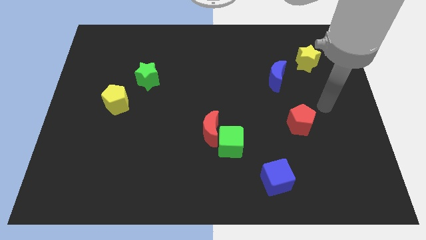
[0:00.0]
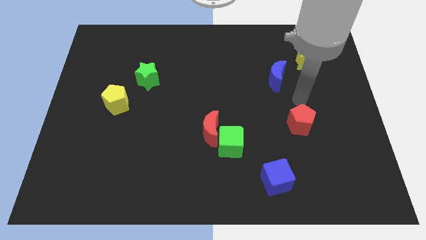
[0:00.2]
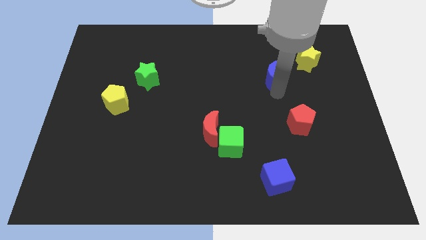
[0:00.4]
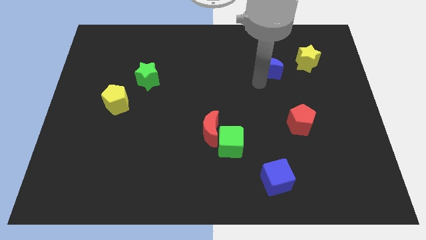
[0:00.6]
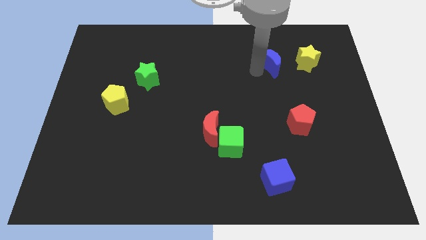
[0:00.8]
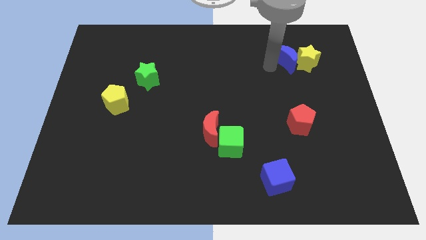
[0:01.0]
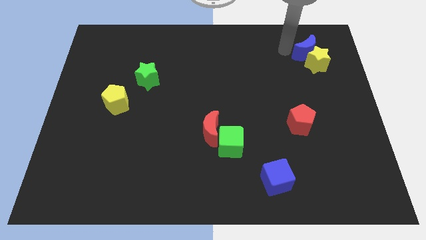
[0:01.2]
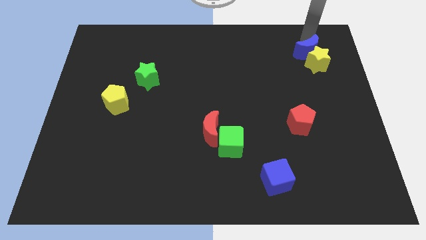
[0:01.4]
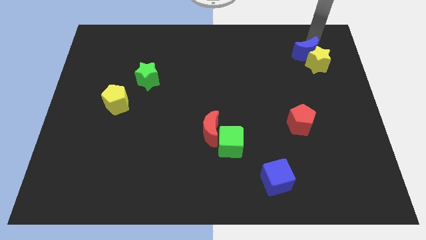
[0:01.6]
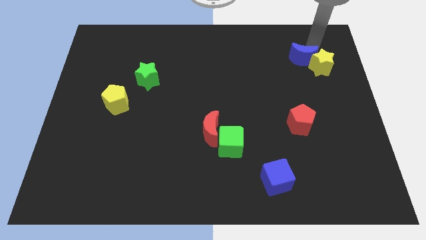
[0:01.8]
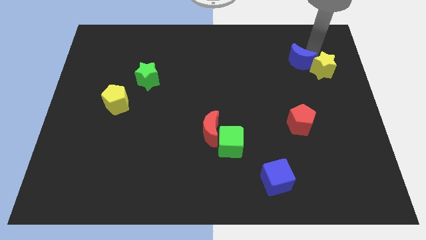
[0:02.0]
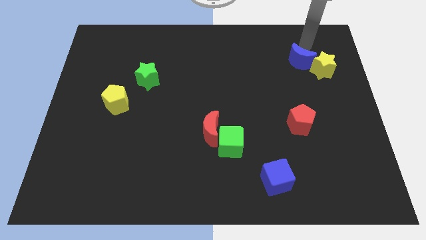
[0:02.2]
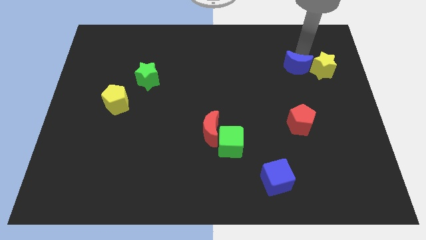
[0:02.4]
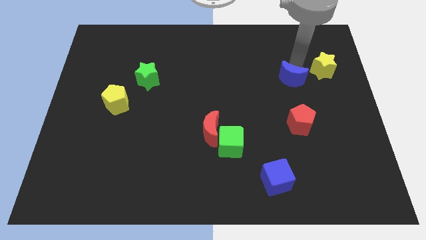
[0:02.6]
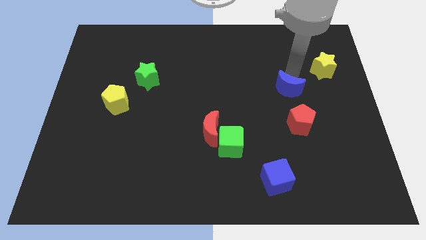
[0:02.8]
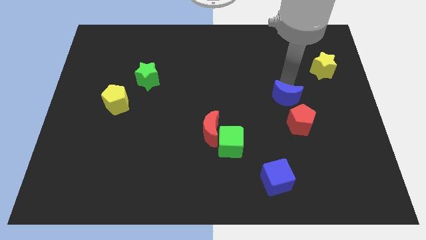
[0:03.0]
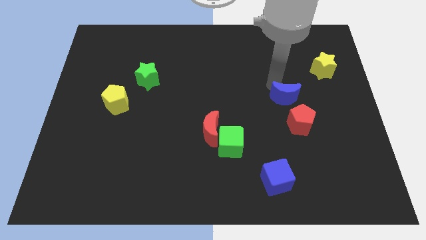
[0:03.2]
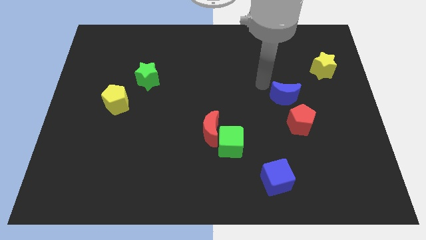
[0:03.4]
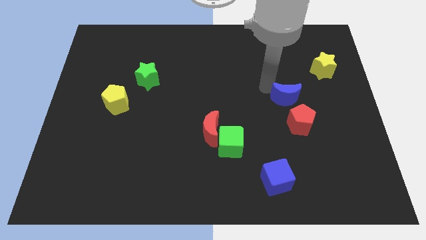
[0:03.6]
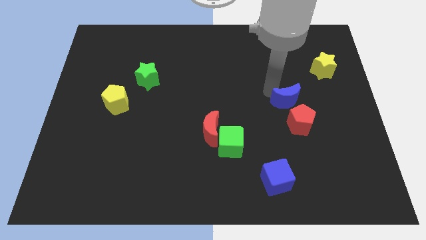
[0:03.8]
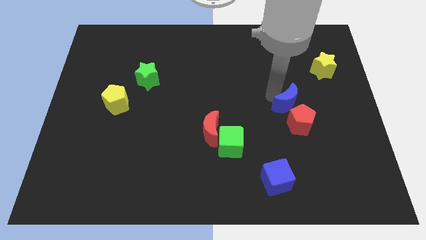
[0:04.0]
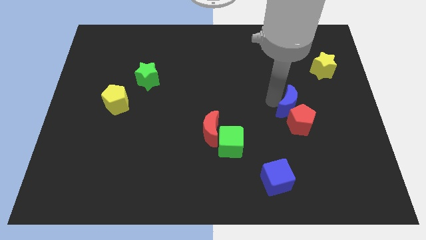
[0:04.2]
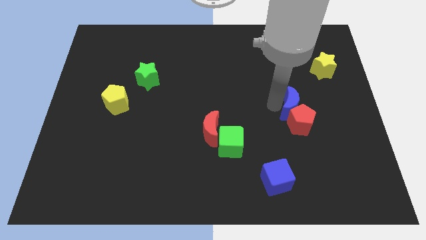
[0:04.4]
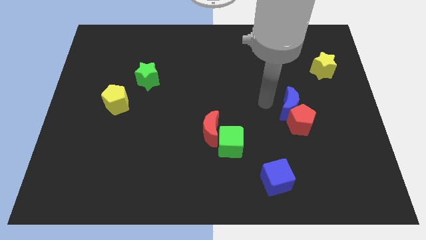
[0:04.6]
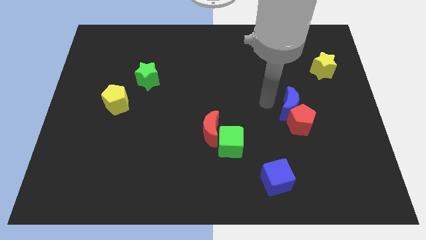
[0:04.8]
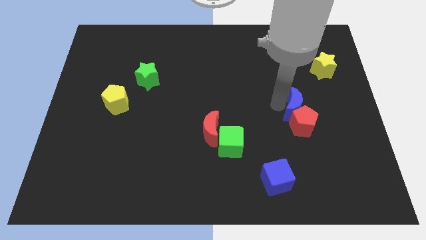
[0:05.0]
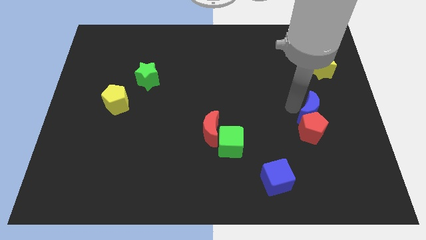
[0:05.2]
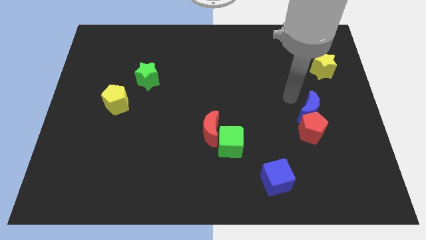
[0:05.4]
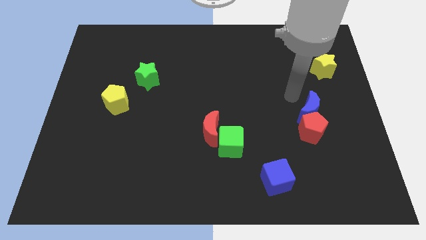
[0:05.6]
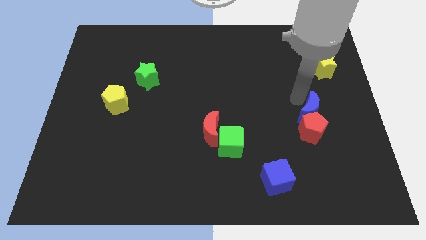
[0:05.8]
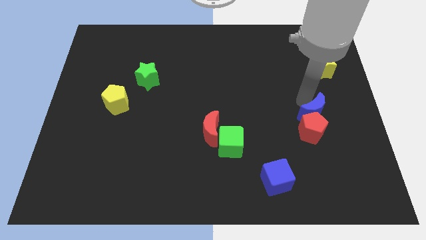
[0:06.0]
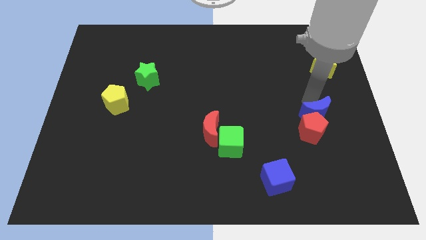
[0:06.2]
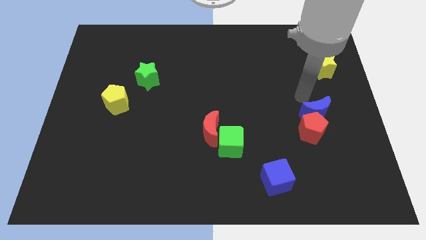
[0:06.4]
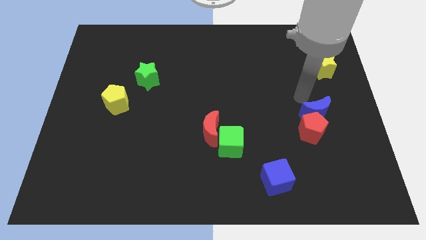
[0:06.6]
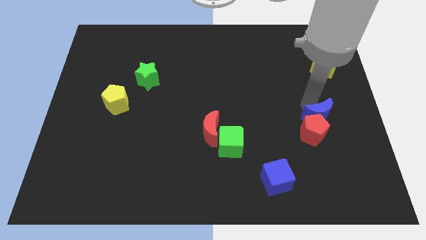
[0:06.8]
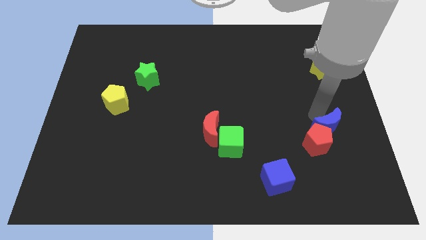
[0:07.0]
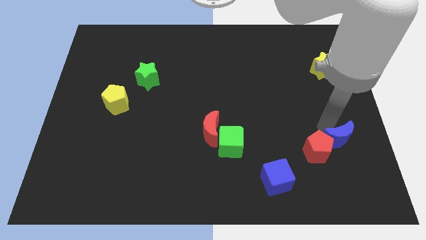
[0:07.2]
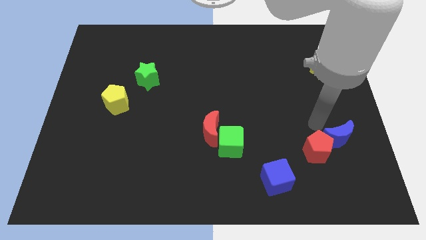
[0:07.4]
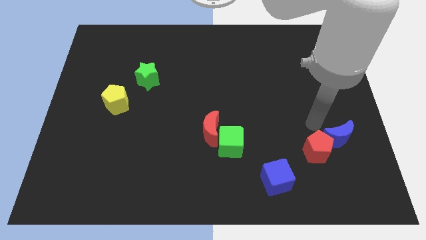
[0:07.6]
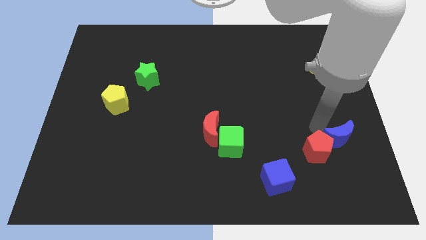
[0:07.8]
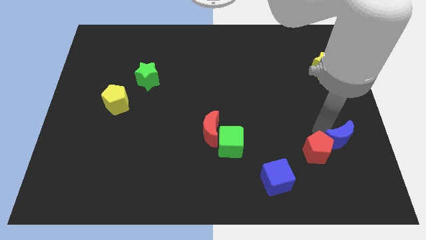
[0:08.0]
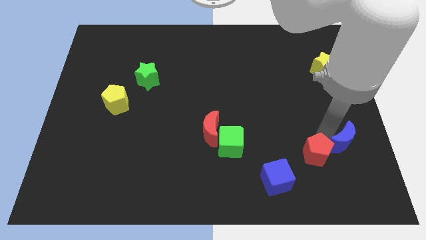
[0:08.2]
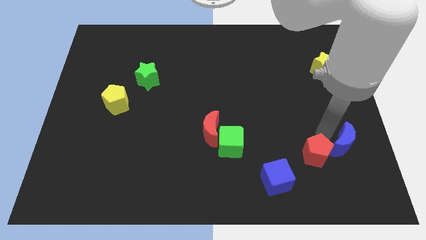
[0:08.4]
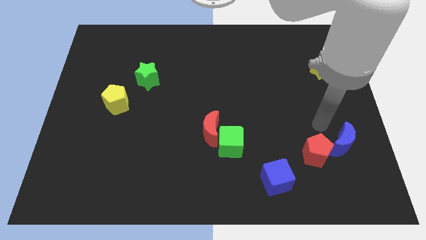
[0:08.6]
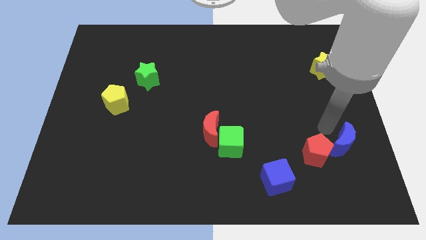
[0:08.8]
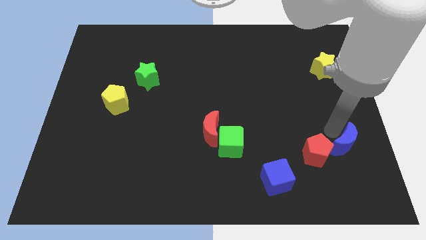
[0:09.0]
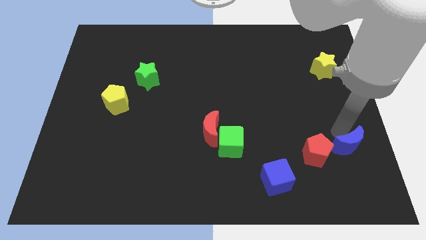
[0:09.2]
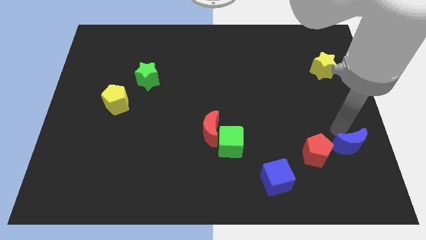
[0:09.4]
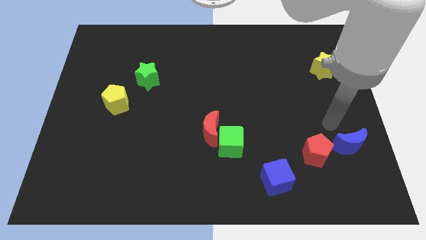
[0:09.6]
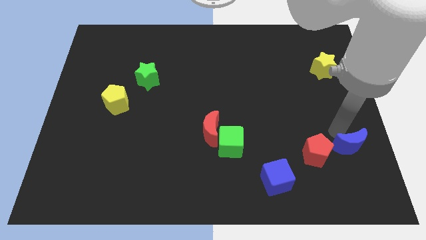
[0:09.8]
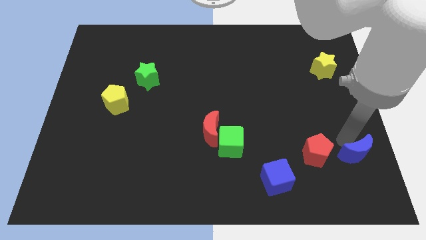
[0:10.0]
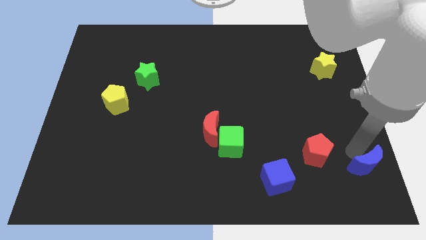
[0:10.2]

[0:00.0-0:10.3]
put the blue moon to the lower right corner

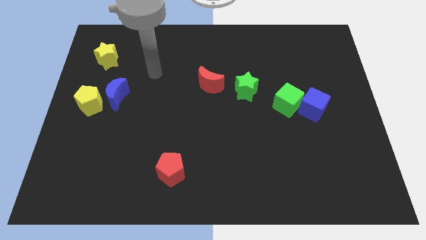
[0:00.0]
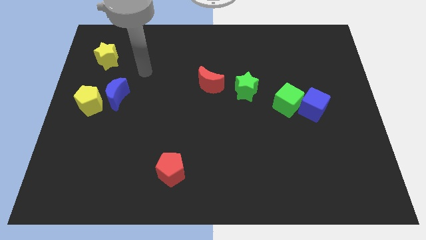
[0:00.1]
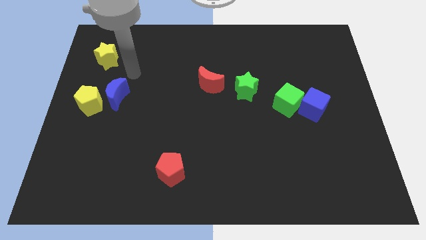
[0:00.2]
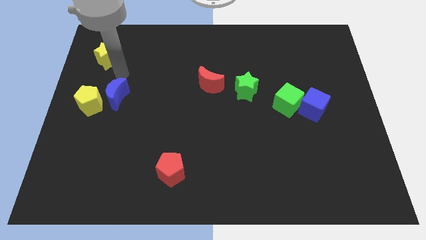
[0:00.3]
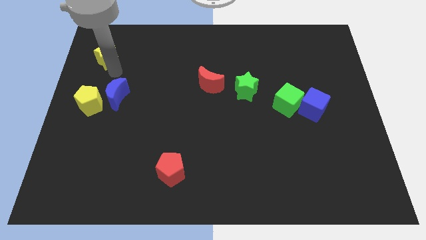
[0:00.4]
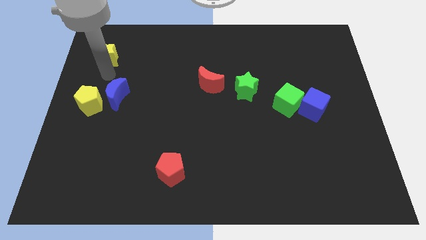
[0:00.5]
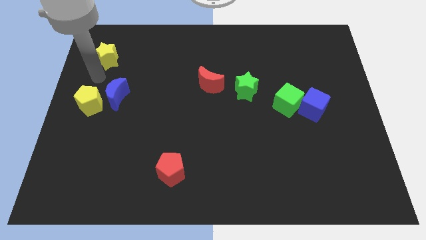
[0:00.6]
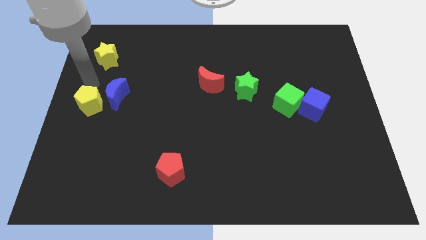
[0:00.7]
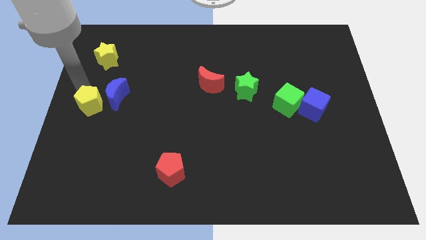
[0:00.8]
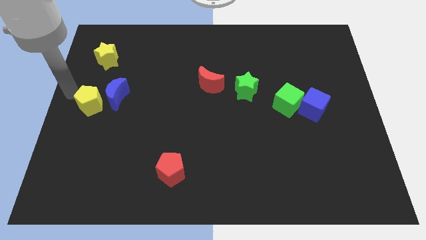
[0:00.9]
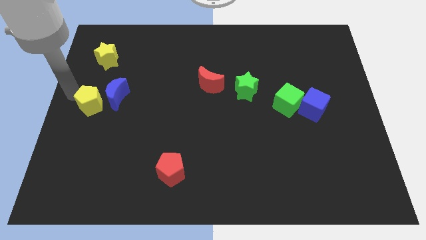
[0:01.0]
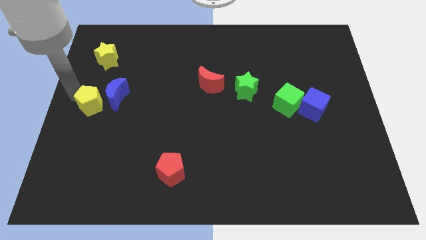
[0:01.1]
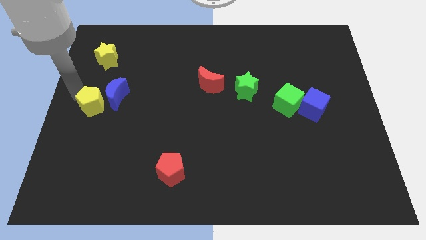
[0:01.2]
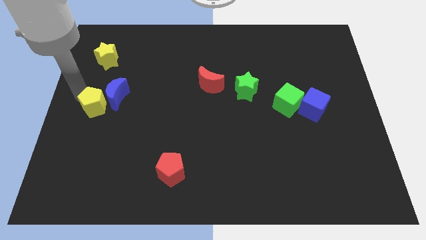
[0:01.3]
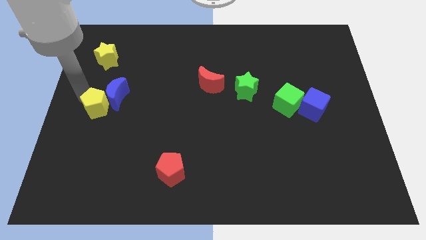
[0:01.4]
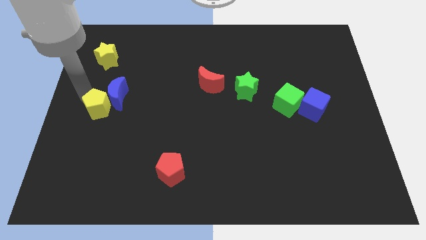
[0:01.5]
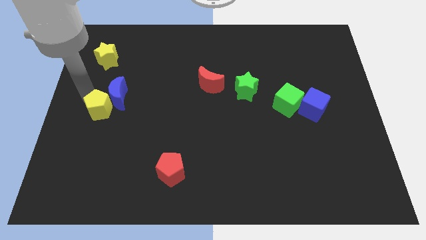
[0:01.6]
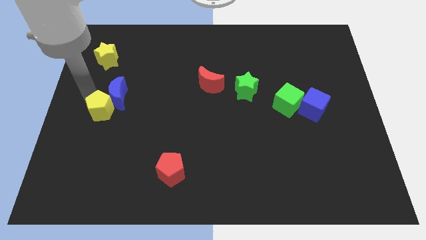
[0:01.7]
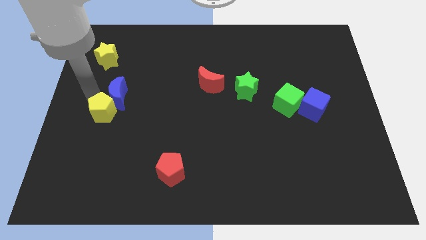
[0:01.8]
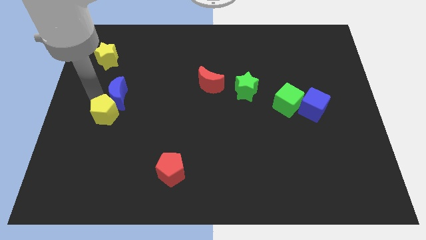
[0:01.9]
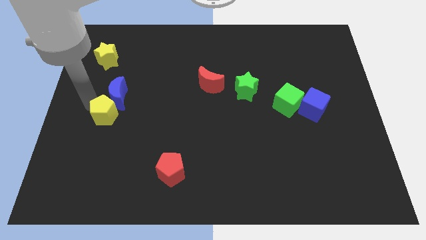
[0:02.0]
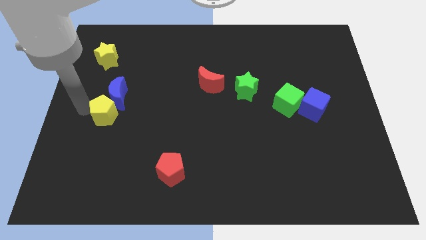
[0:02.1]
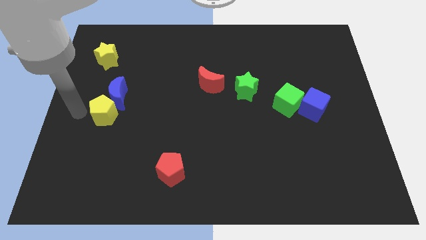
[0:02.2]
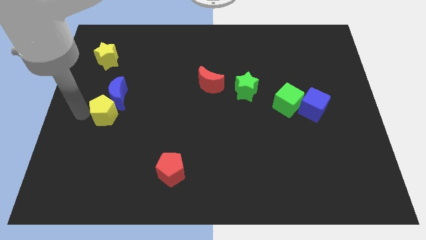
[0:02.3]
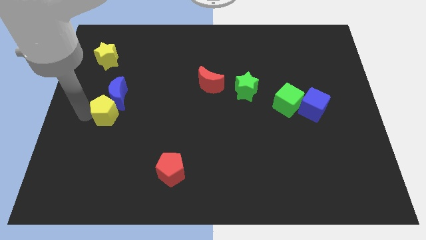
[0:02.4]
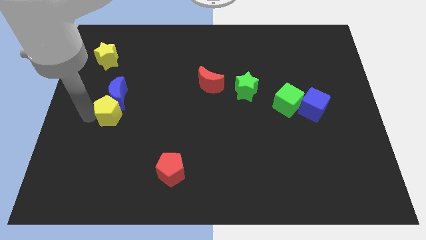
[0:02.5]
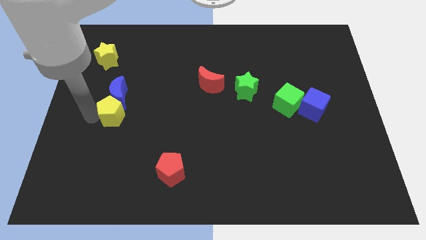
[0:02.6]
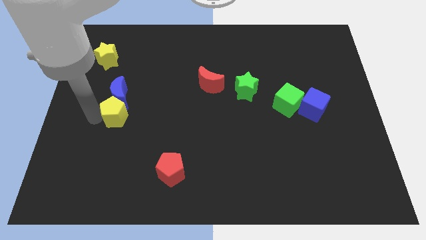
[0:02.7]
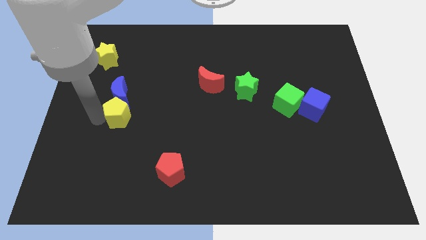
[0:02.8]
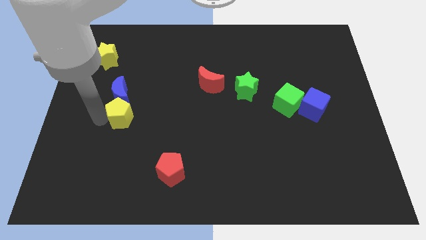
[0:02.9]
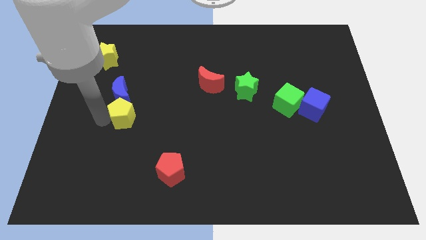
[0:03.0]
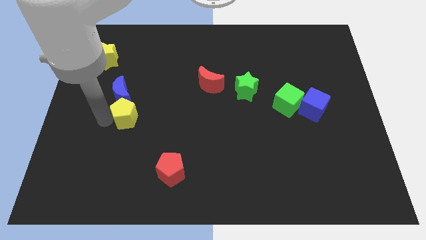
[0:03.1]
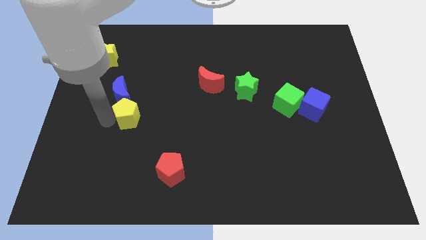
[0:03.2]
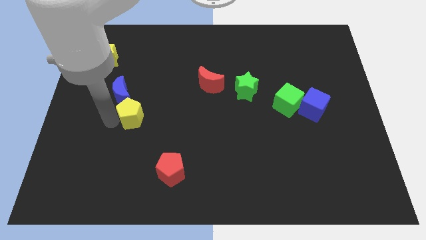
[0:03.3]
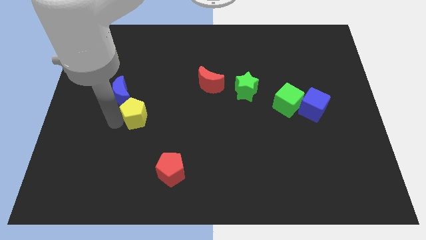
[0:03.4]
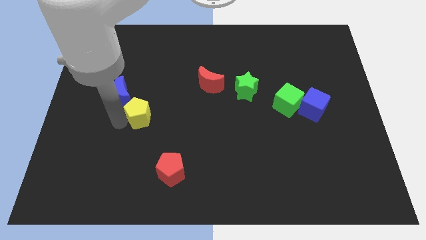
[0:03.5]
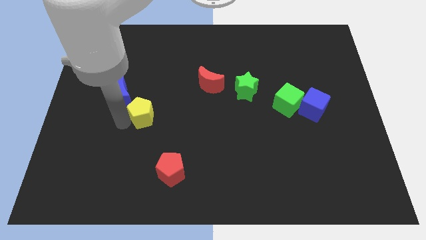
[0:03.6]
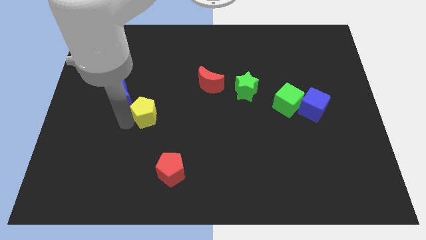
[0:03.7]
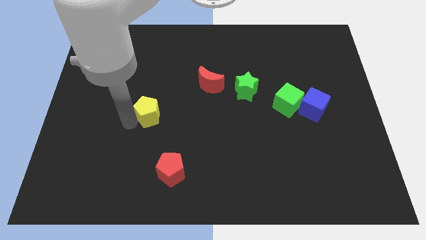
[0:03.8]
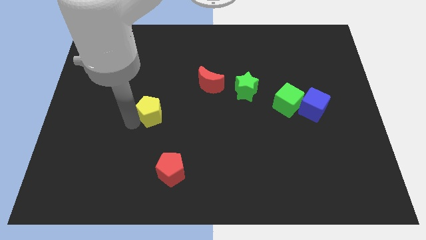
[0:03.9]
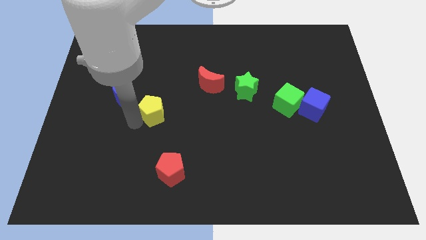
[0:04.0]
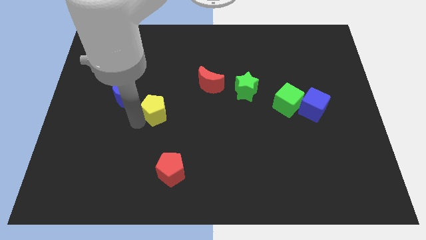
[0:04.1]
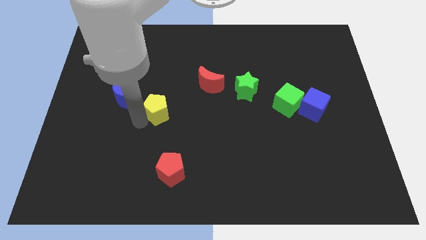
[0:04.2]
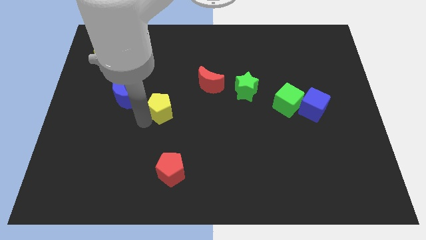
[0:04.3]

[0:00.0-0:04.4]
slide the yellow pentagon to the middle
